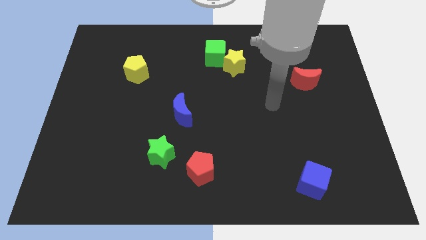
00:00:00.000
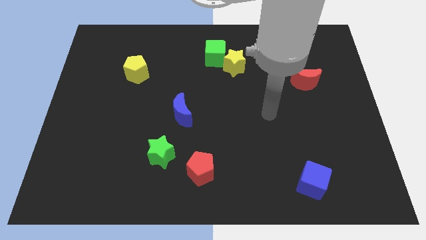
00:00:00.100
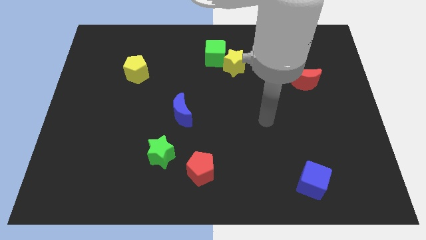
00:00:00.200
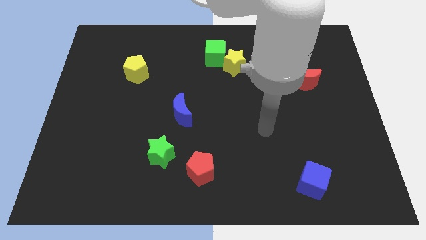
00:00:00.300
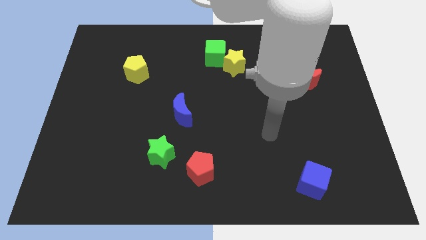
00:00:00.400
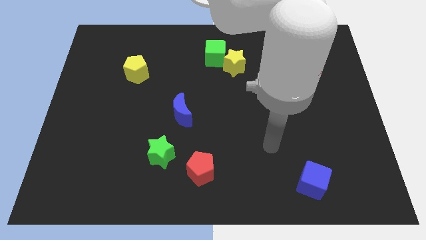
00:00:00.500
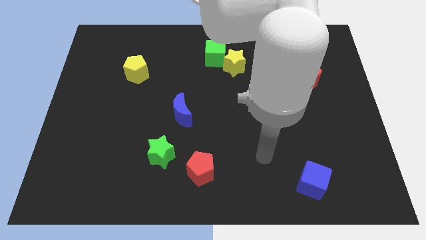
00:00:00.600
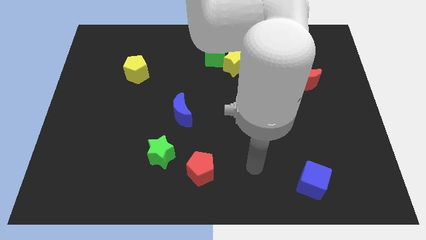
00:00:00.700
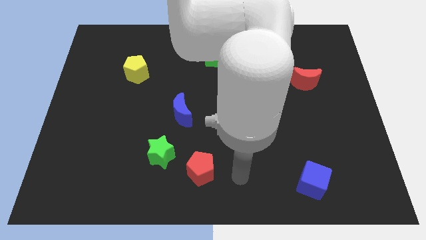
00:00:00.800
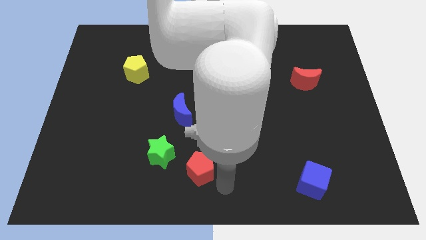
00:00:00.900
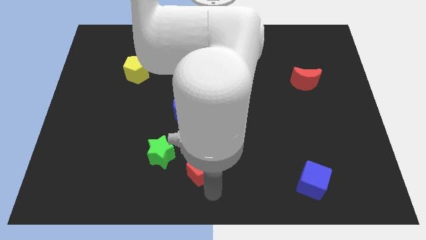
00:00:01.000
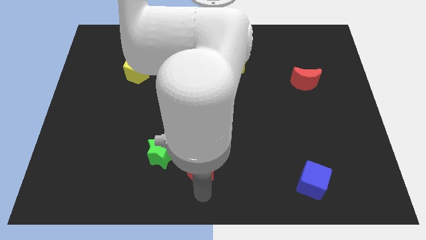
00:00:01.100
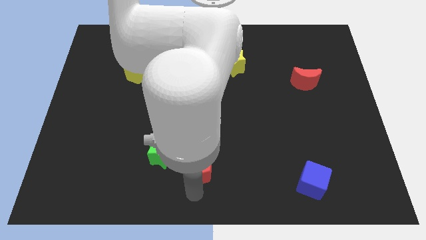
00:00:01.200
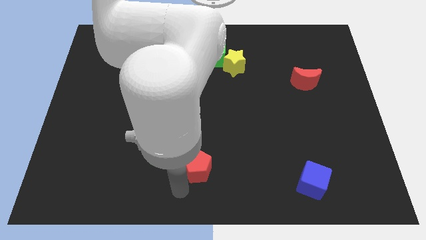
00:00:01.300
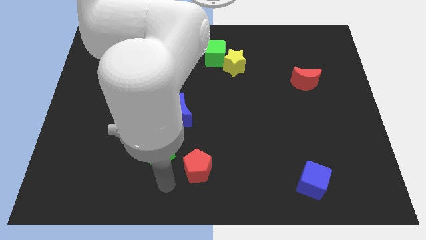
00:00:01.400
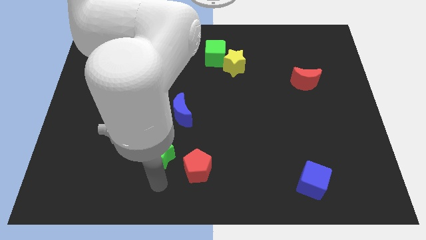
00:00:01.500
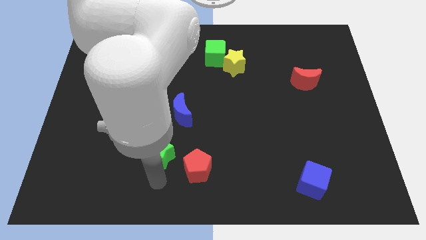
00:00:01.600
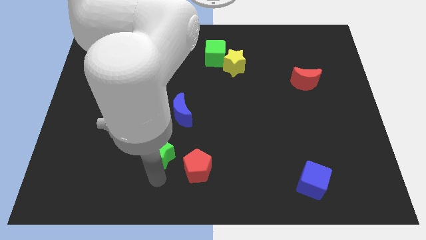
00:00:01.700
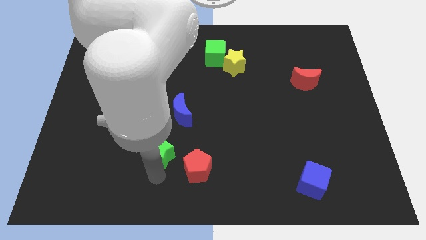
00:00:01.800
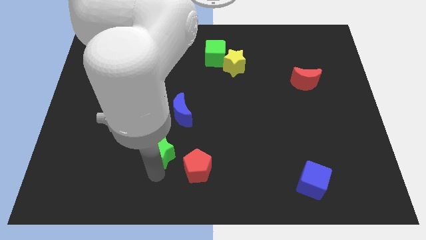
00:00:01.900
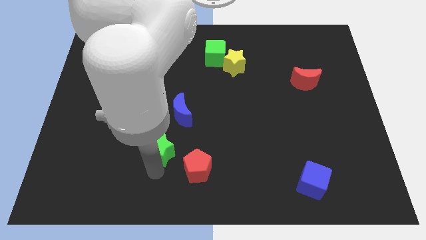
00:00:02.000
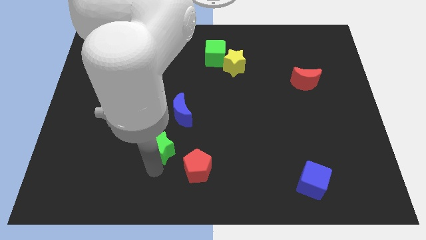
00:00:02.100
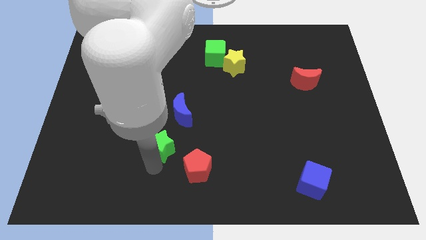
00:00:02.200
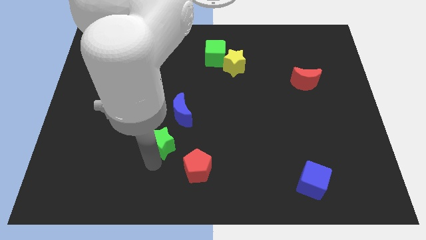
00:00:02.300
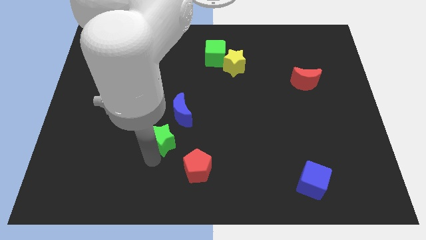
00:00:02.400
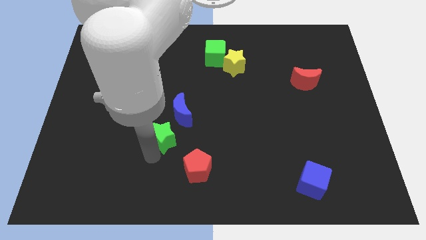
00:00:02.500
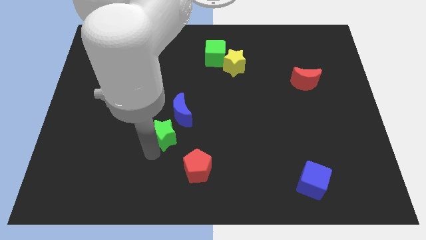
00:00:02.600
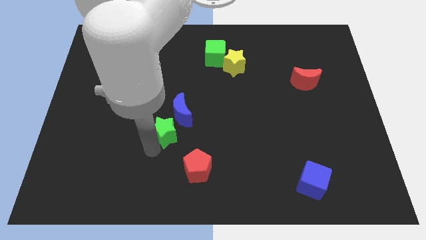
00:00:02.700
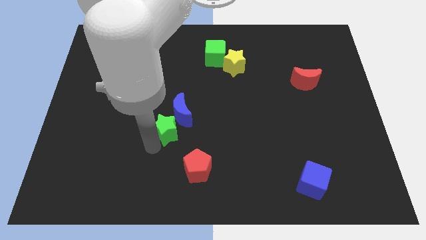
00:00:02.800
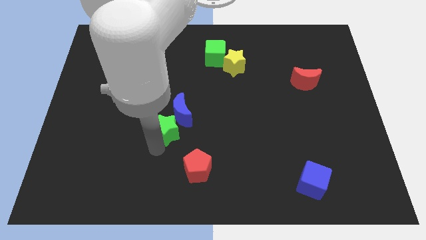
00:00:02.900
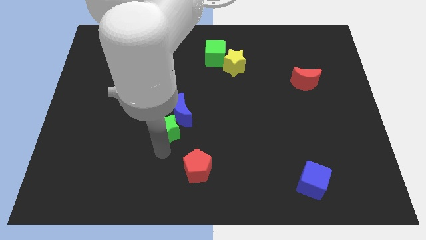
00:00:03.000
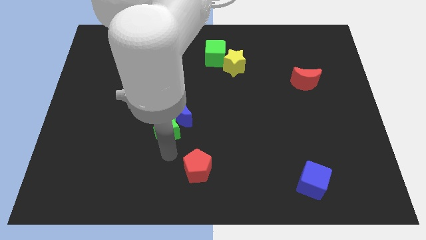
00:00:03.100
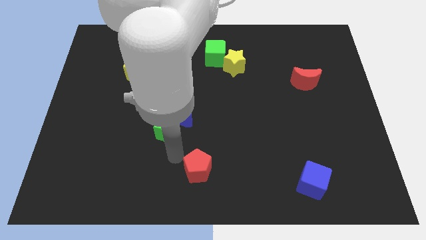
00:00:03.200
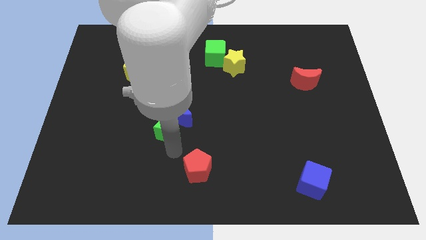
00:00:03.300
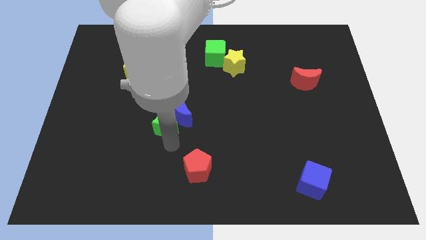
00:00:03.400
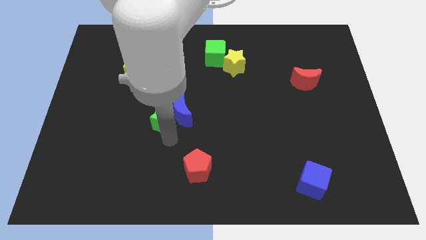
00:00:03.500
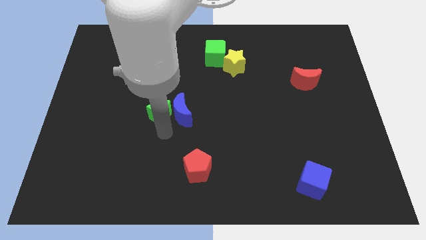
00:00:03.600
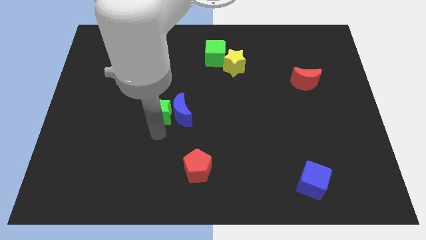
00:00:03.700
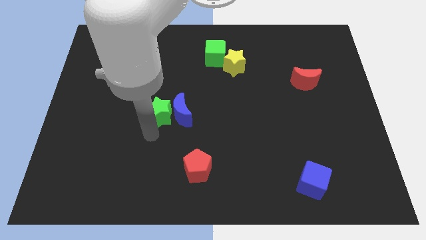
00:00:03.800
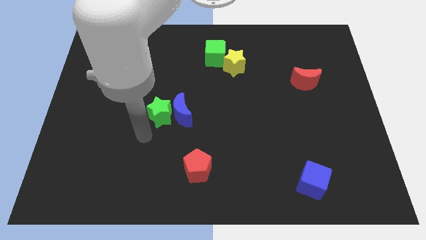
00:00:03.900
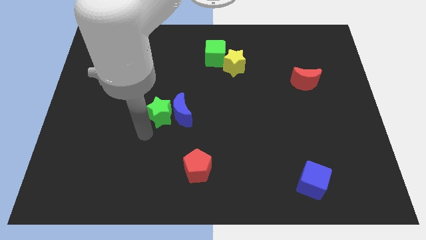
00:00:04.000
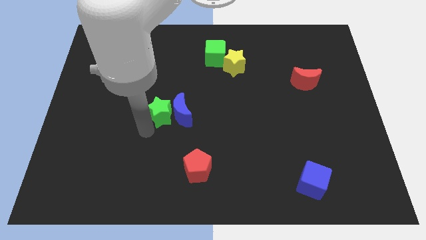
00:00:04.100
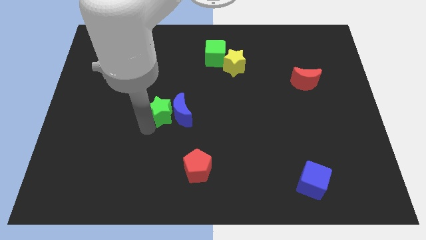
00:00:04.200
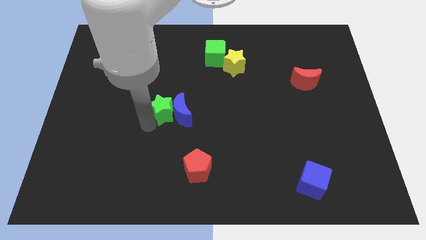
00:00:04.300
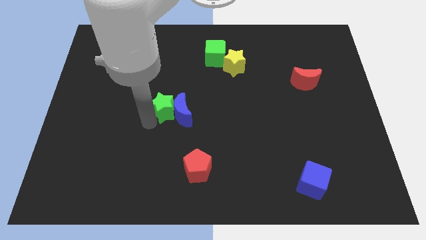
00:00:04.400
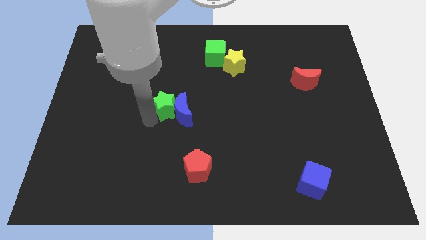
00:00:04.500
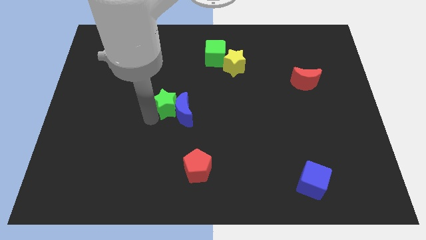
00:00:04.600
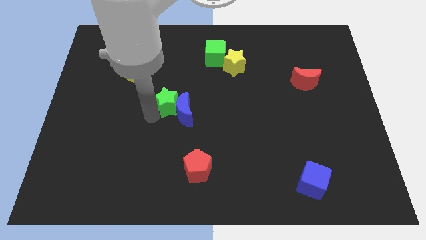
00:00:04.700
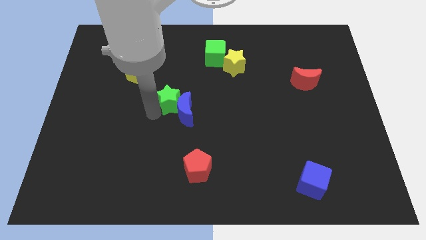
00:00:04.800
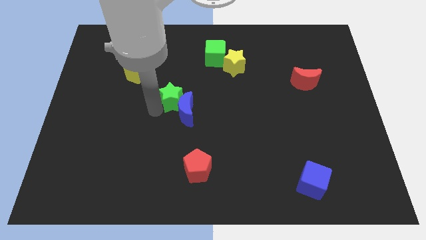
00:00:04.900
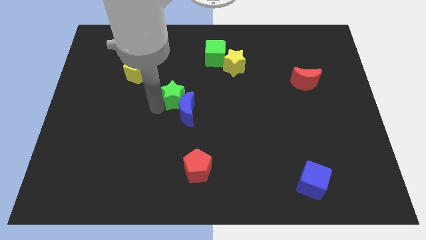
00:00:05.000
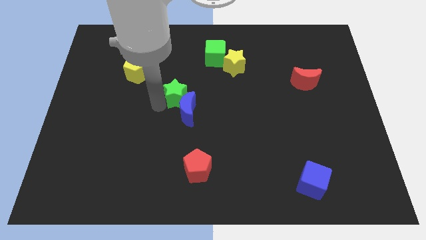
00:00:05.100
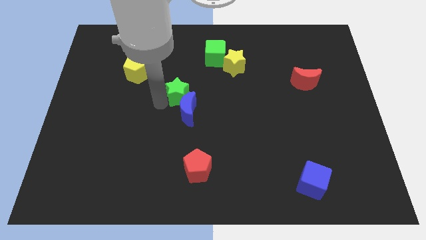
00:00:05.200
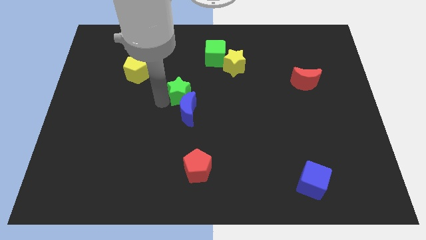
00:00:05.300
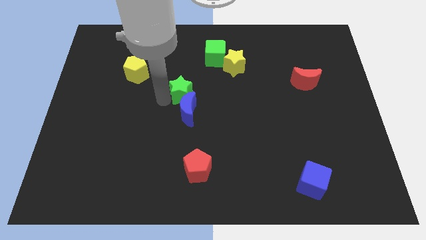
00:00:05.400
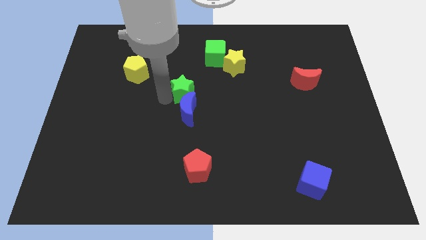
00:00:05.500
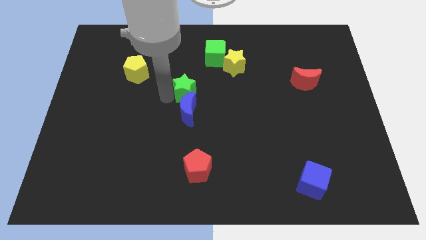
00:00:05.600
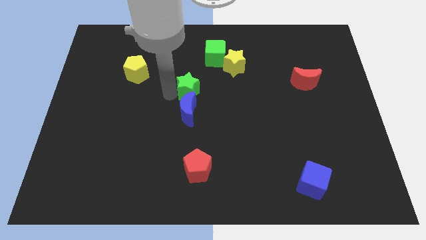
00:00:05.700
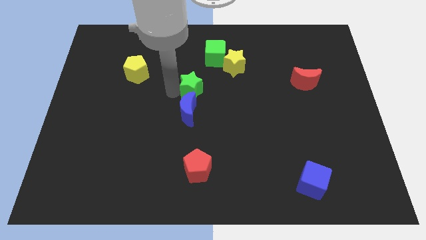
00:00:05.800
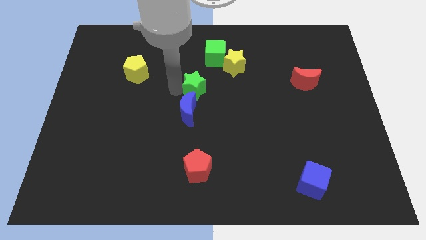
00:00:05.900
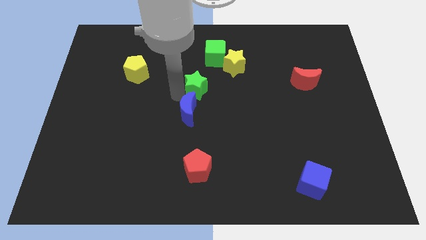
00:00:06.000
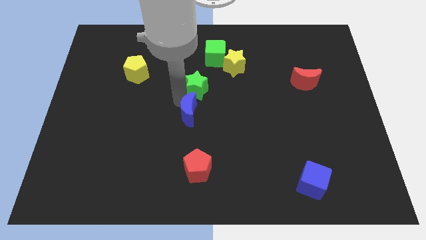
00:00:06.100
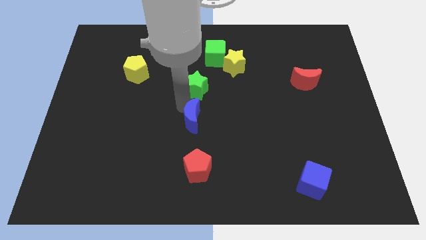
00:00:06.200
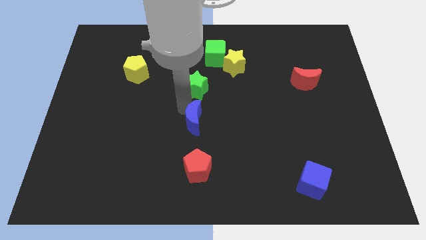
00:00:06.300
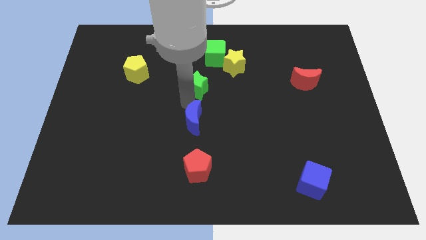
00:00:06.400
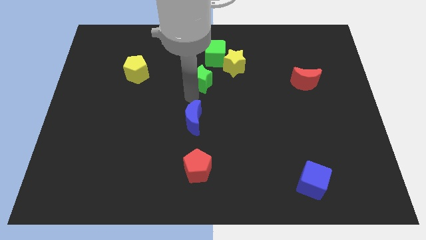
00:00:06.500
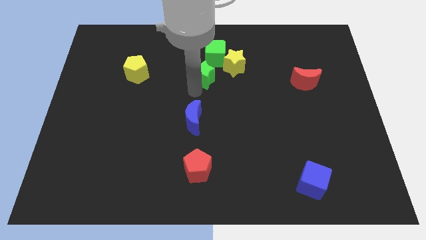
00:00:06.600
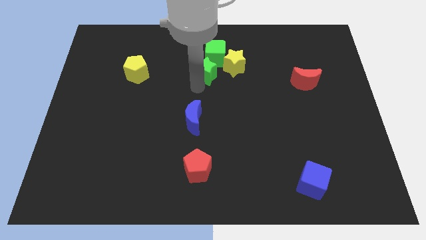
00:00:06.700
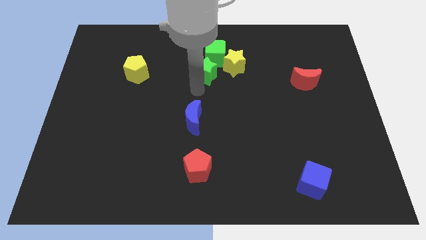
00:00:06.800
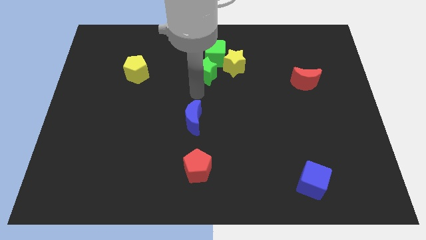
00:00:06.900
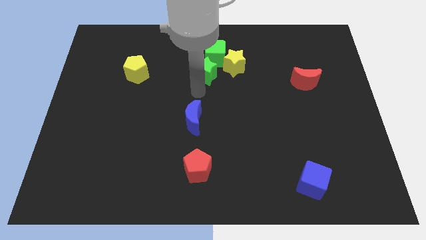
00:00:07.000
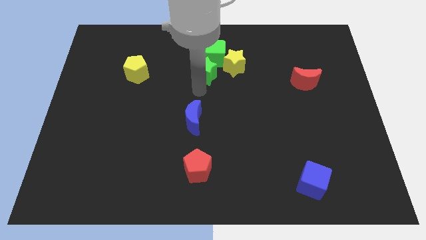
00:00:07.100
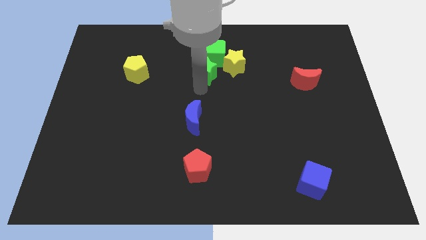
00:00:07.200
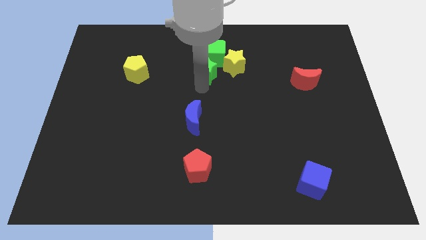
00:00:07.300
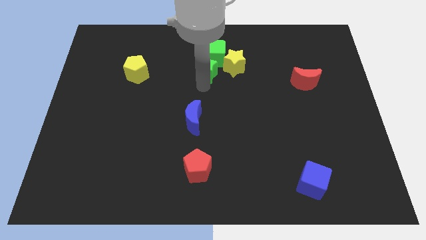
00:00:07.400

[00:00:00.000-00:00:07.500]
slide the green star next to the green cube

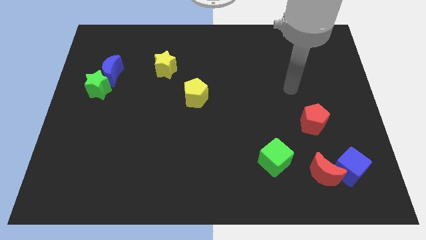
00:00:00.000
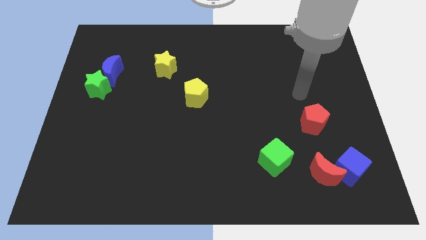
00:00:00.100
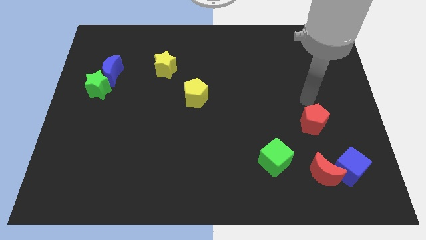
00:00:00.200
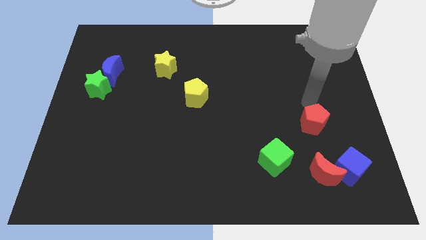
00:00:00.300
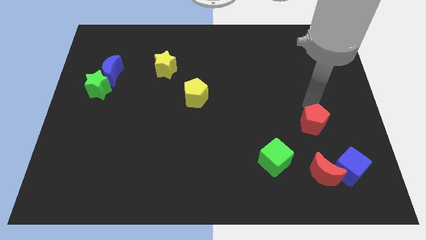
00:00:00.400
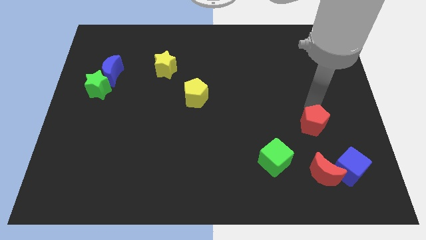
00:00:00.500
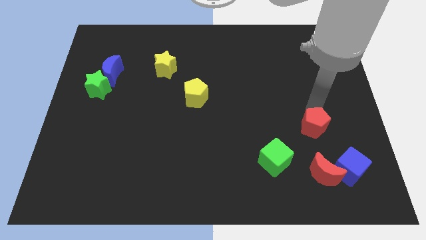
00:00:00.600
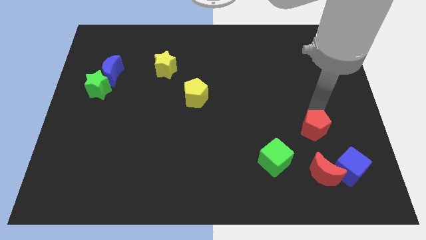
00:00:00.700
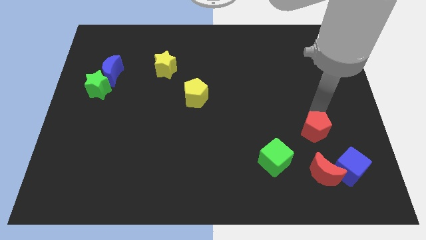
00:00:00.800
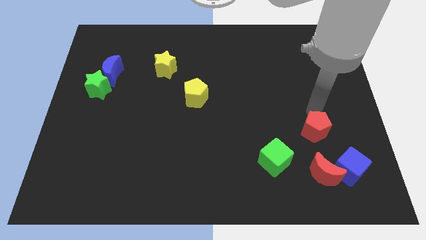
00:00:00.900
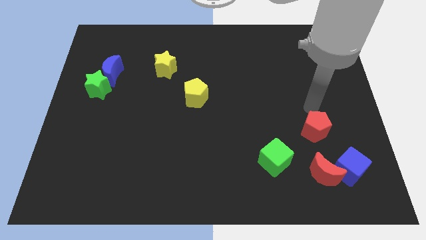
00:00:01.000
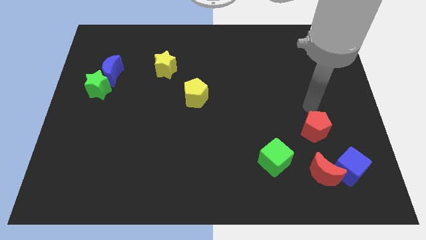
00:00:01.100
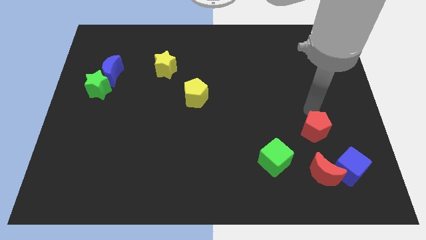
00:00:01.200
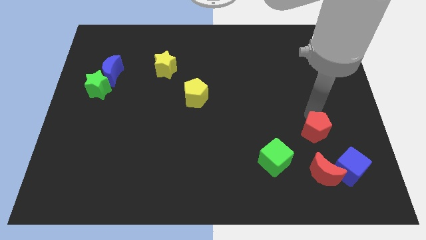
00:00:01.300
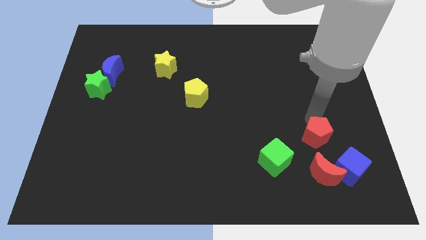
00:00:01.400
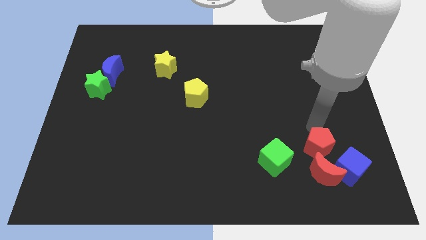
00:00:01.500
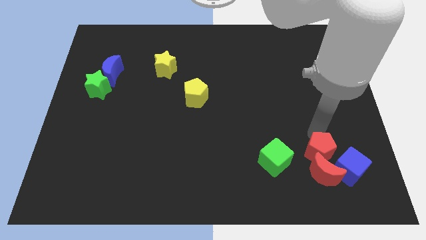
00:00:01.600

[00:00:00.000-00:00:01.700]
push the red pentagon close to the red moon
